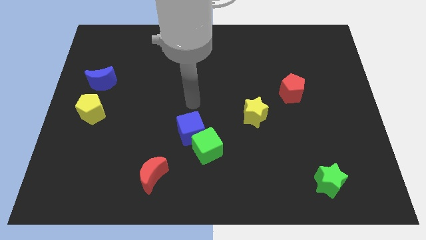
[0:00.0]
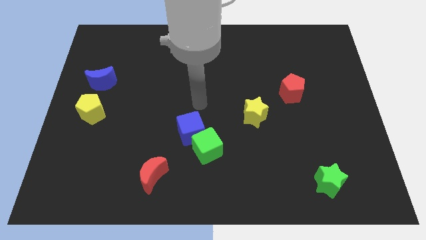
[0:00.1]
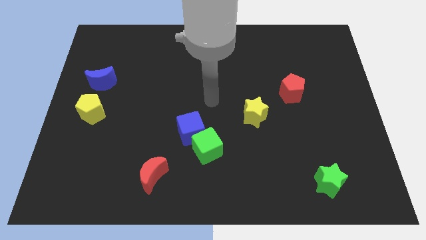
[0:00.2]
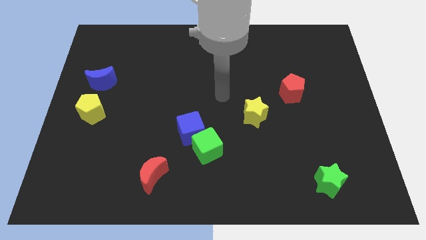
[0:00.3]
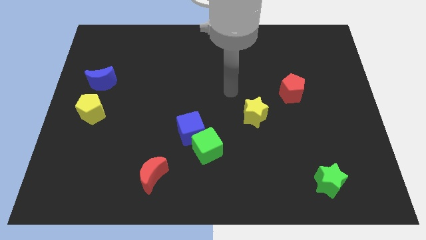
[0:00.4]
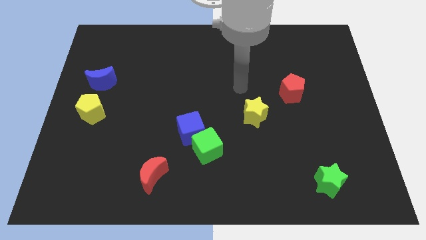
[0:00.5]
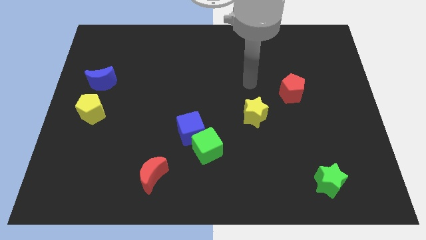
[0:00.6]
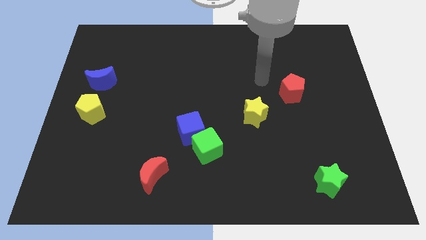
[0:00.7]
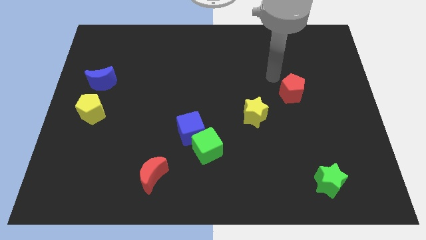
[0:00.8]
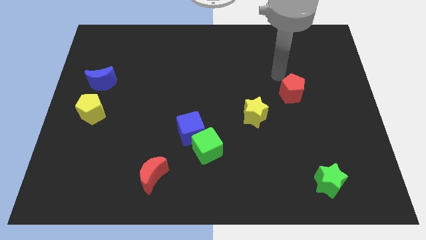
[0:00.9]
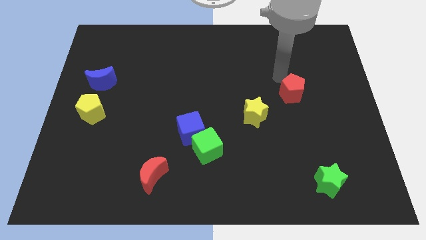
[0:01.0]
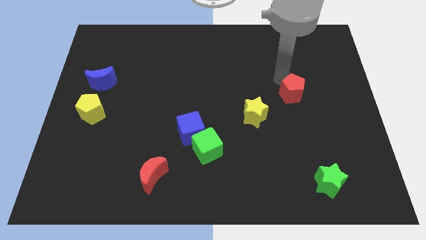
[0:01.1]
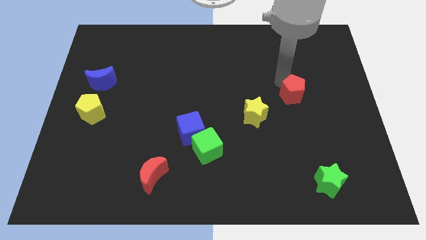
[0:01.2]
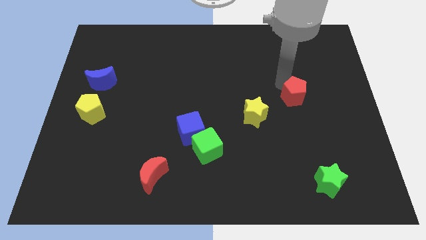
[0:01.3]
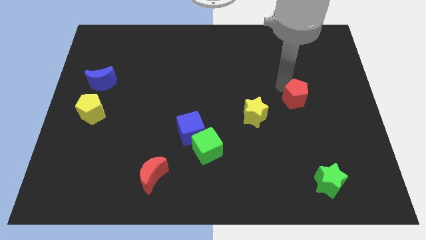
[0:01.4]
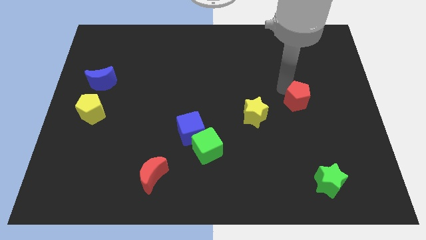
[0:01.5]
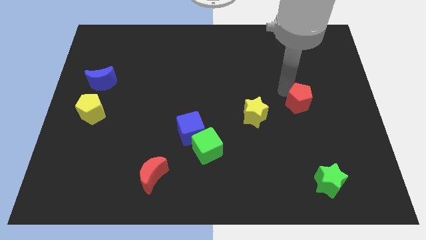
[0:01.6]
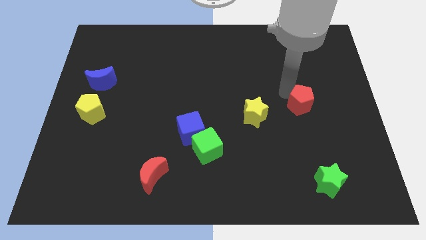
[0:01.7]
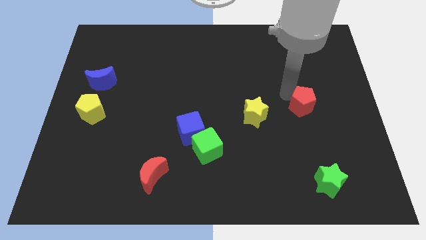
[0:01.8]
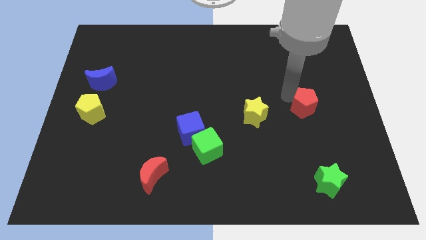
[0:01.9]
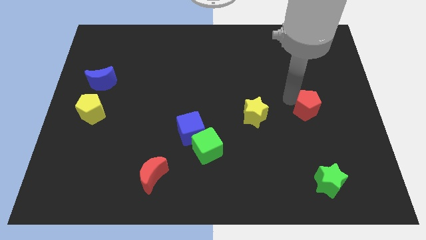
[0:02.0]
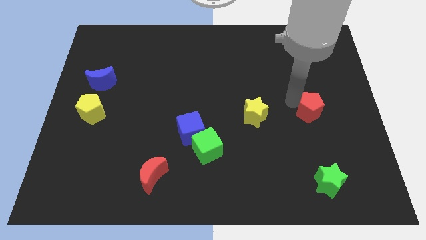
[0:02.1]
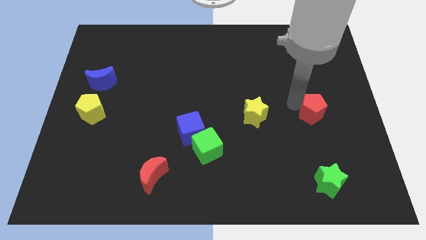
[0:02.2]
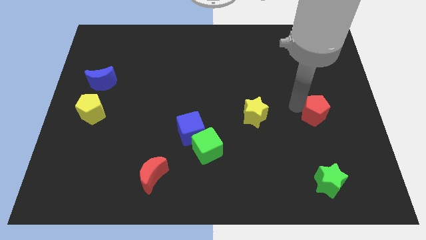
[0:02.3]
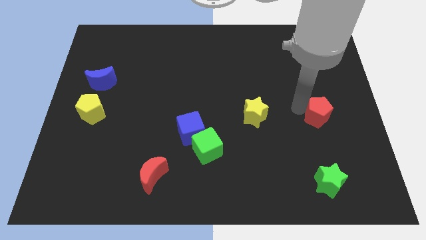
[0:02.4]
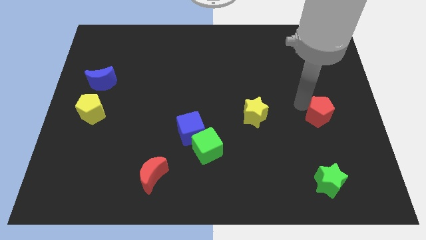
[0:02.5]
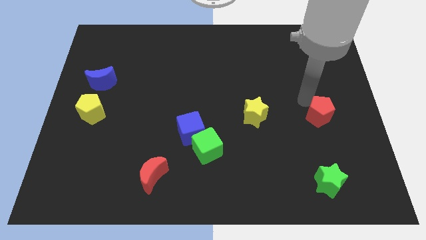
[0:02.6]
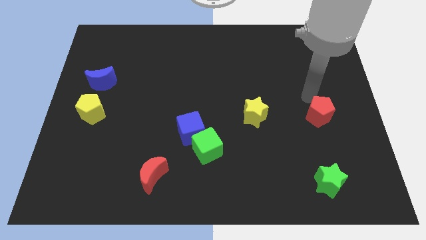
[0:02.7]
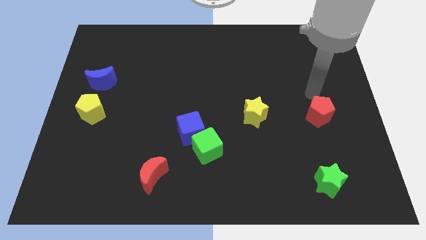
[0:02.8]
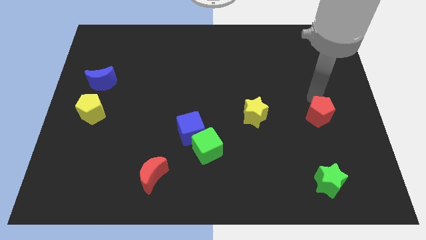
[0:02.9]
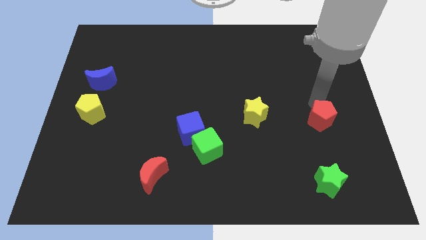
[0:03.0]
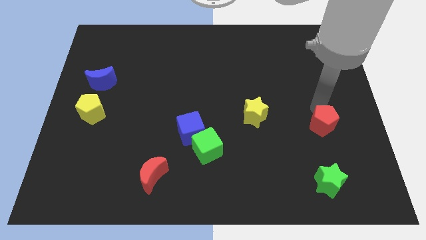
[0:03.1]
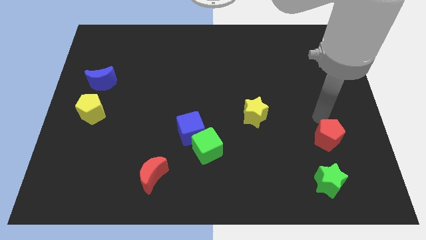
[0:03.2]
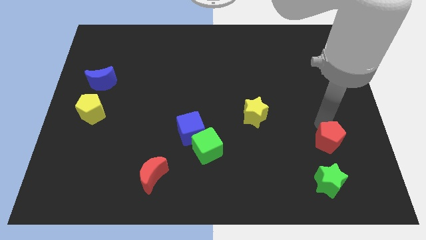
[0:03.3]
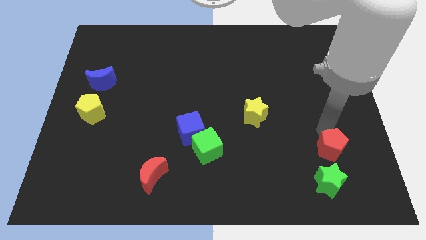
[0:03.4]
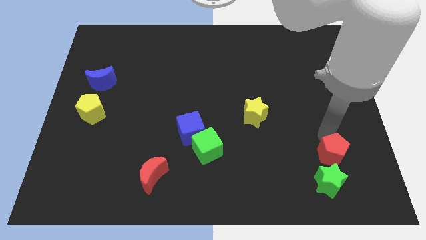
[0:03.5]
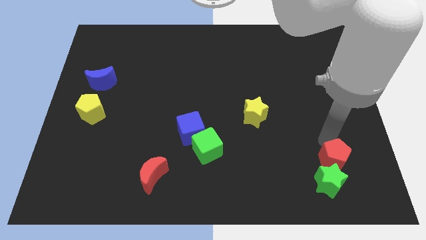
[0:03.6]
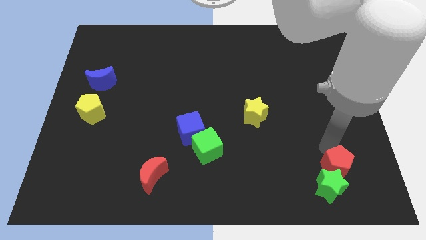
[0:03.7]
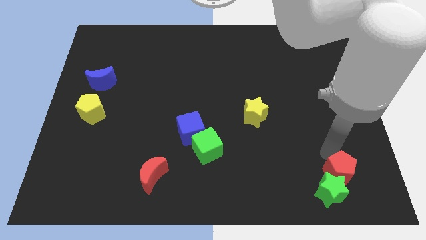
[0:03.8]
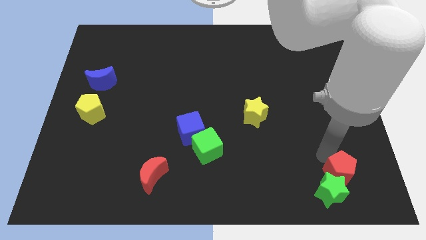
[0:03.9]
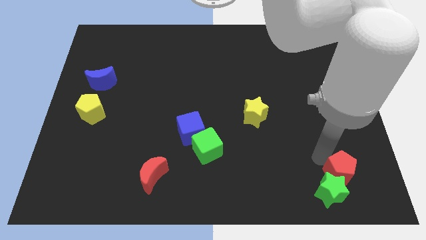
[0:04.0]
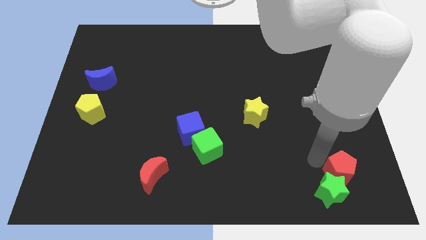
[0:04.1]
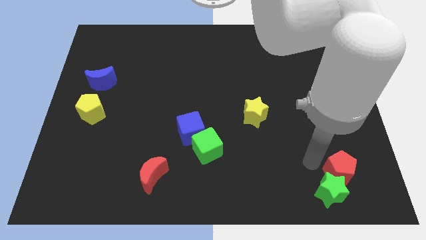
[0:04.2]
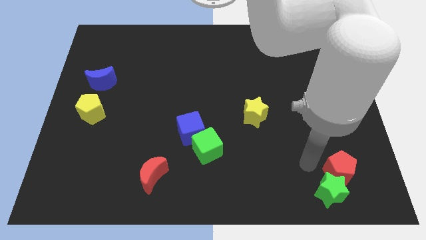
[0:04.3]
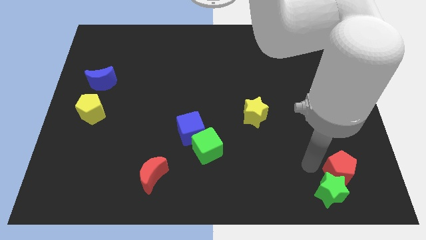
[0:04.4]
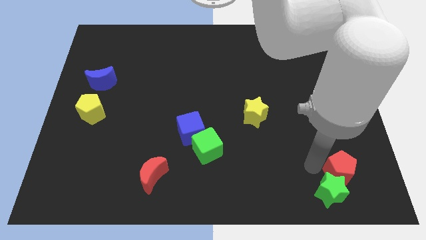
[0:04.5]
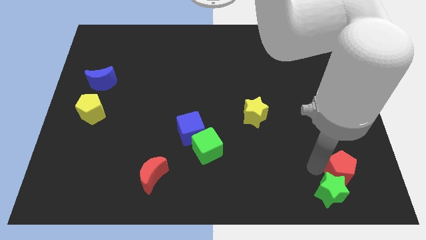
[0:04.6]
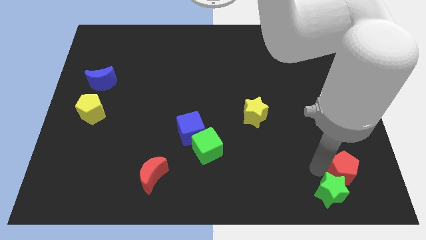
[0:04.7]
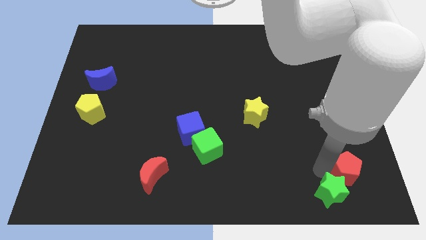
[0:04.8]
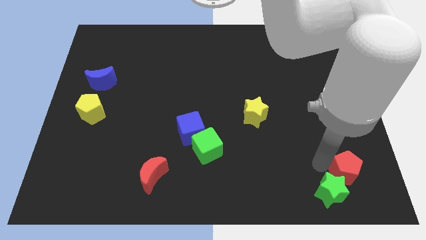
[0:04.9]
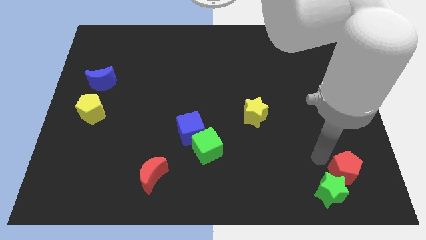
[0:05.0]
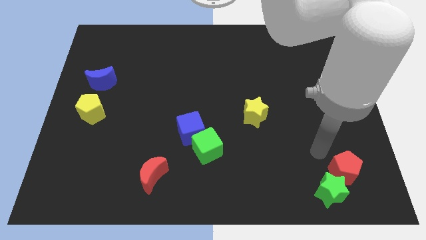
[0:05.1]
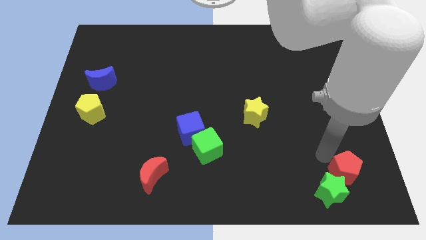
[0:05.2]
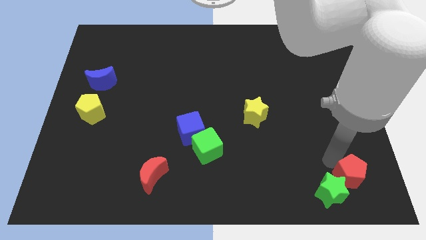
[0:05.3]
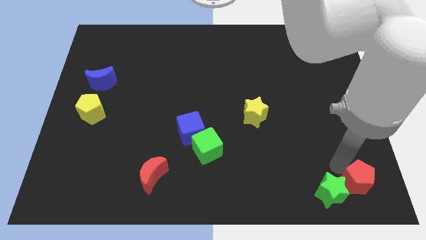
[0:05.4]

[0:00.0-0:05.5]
slide the red pentagon to the bottom right corner

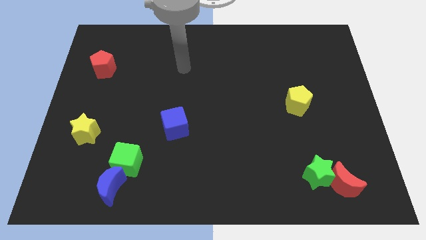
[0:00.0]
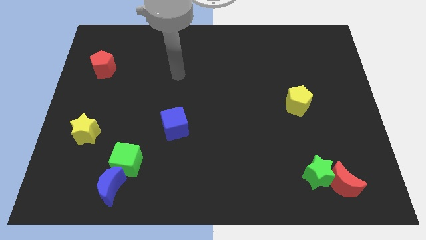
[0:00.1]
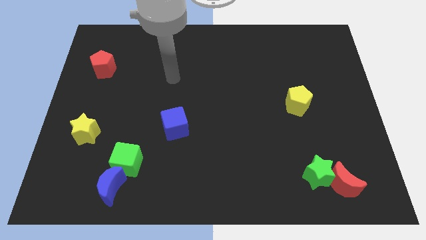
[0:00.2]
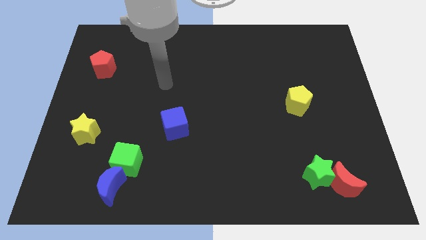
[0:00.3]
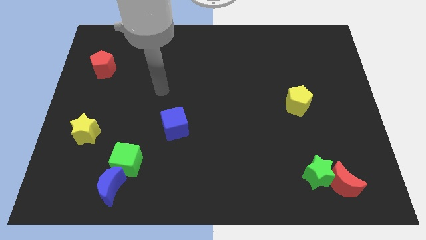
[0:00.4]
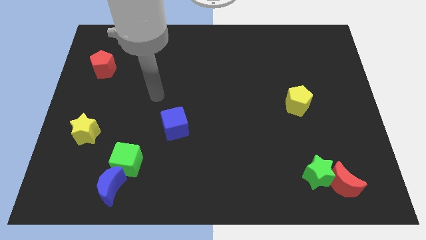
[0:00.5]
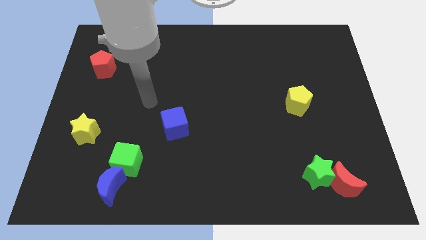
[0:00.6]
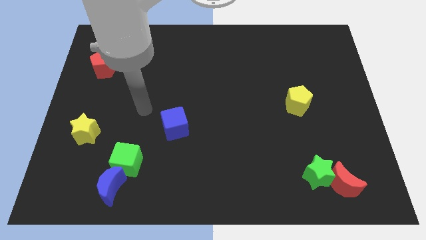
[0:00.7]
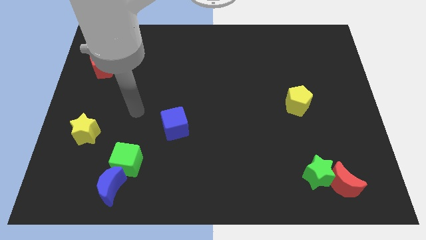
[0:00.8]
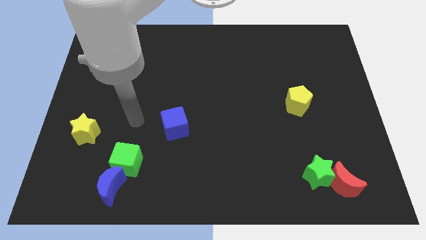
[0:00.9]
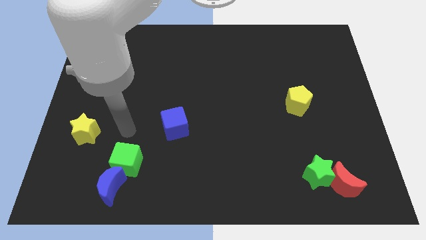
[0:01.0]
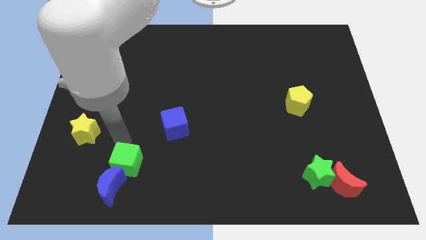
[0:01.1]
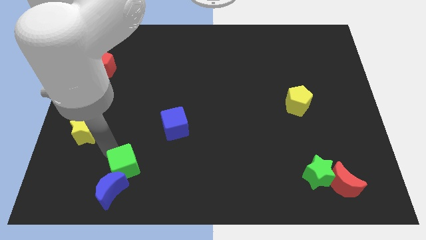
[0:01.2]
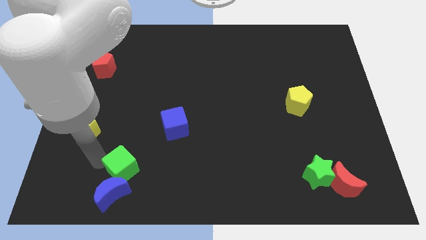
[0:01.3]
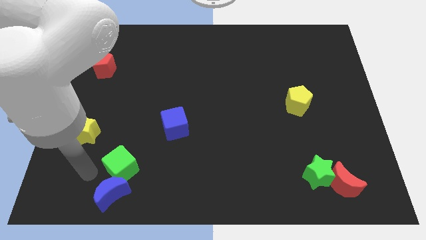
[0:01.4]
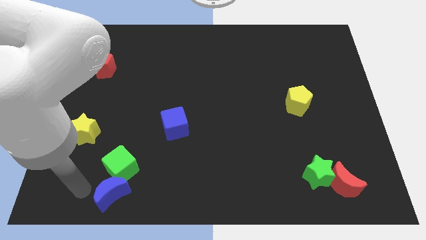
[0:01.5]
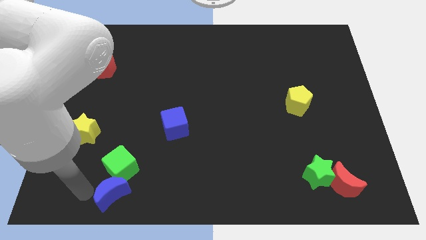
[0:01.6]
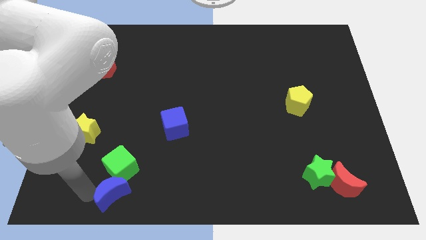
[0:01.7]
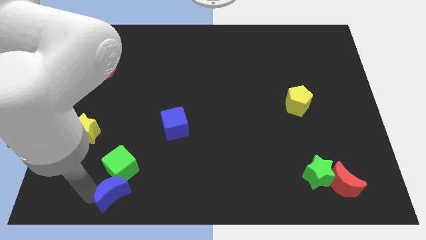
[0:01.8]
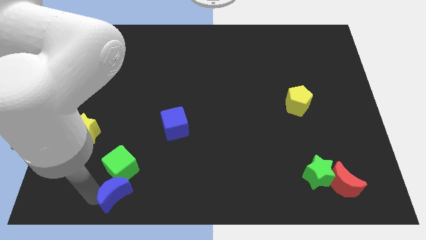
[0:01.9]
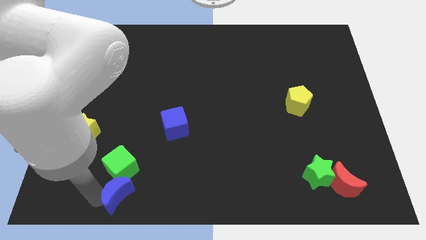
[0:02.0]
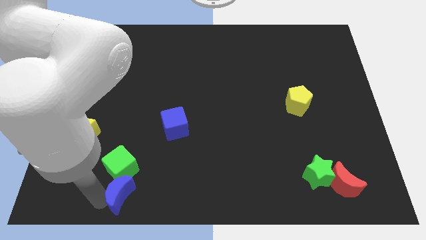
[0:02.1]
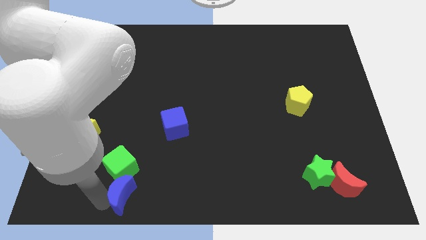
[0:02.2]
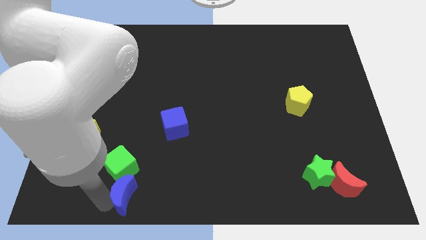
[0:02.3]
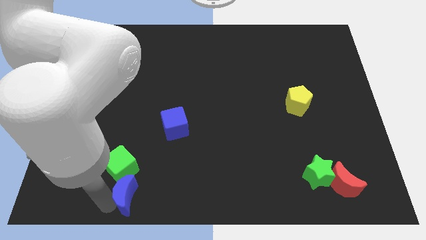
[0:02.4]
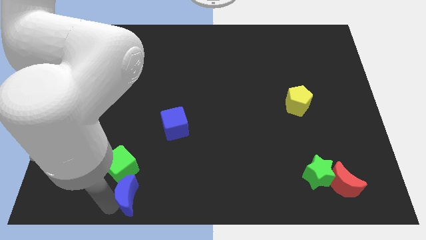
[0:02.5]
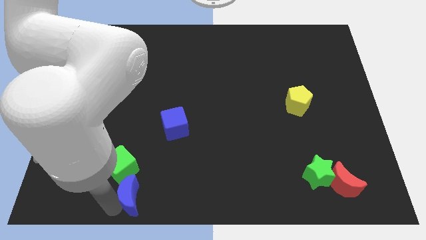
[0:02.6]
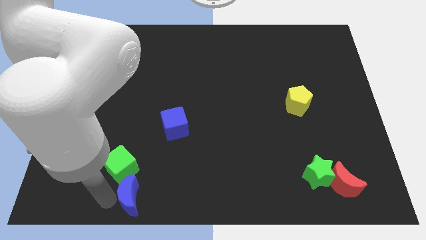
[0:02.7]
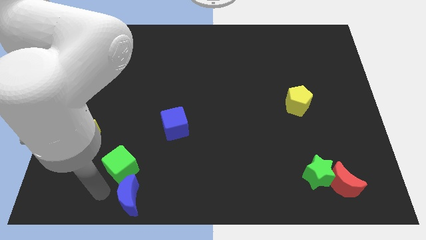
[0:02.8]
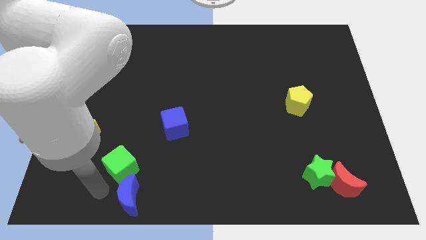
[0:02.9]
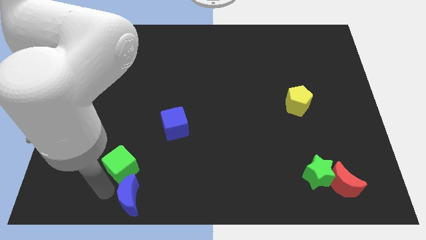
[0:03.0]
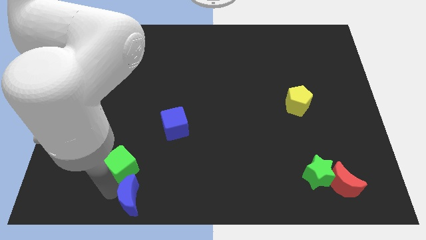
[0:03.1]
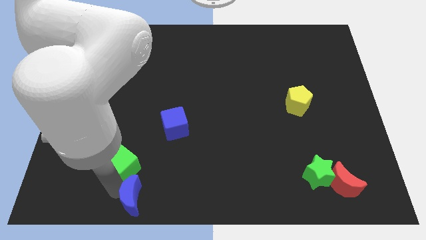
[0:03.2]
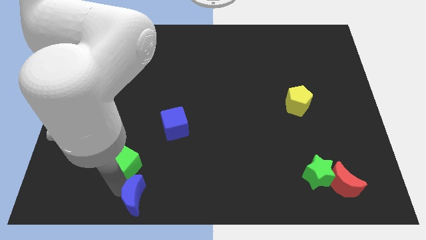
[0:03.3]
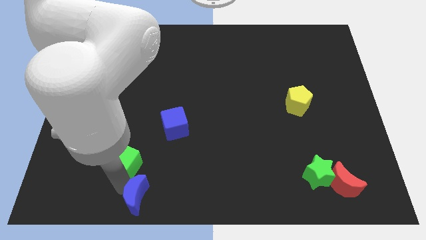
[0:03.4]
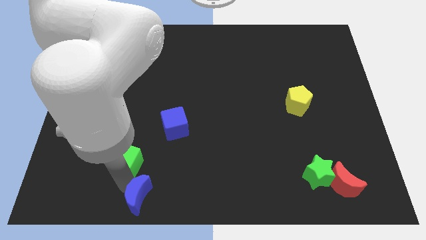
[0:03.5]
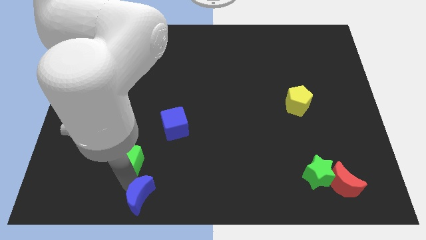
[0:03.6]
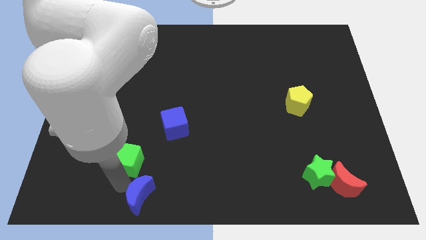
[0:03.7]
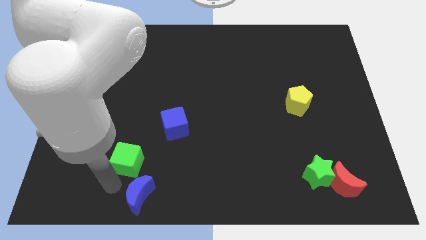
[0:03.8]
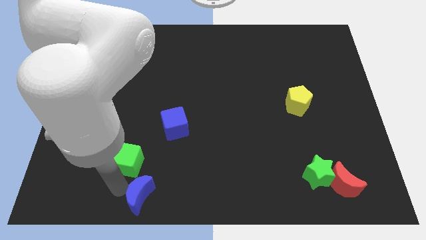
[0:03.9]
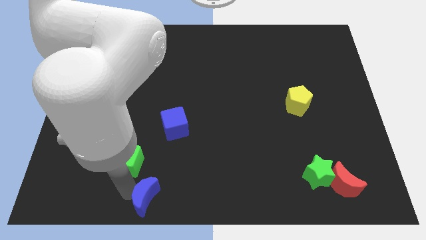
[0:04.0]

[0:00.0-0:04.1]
put the blue moon to the bottom side
